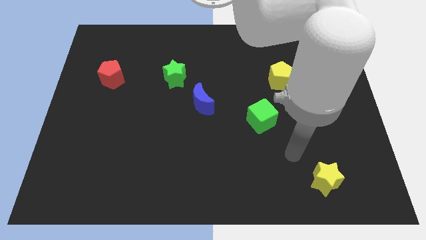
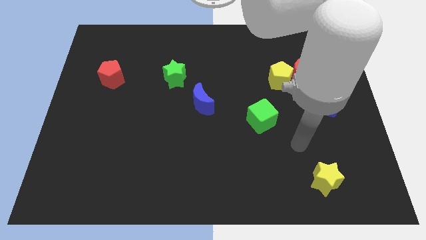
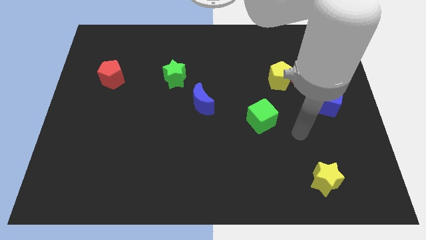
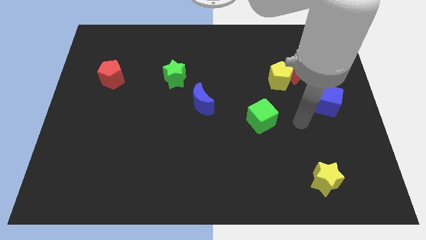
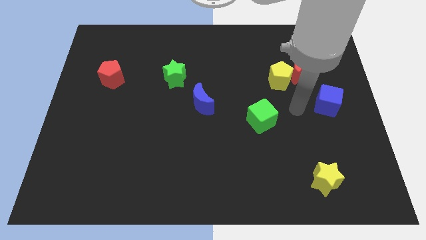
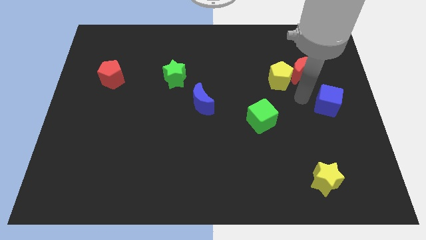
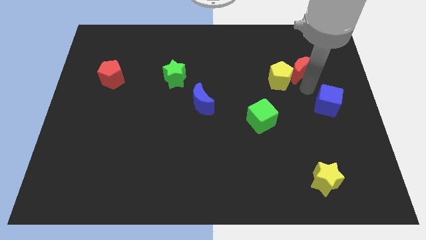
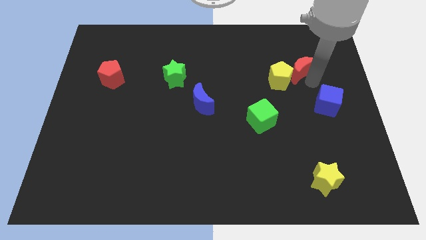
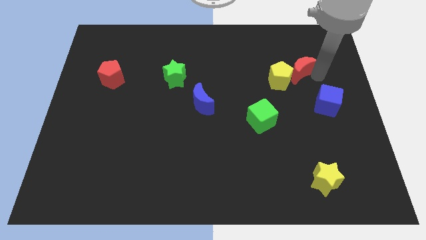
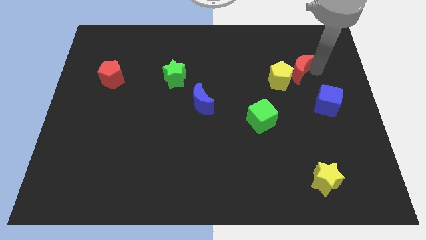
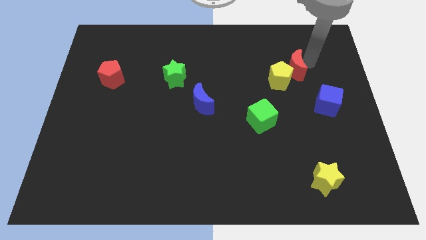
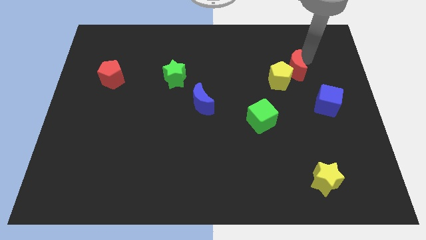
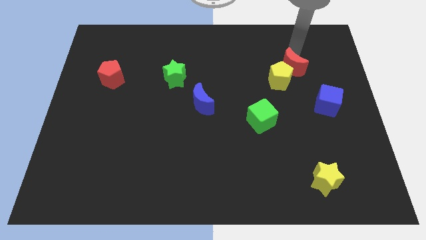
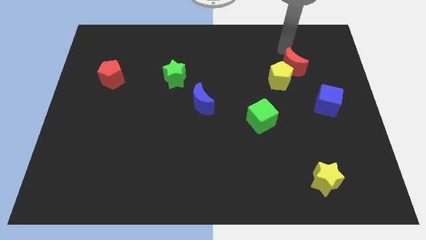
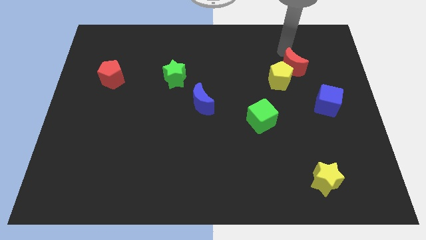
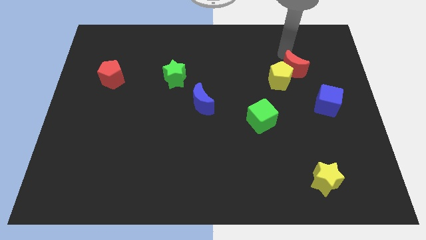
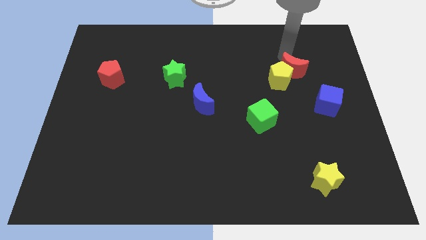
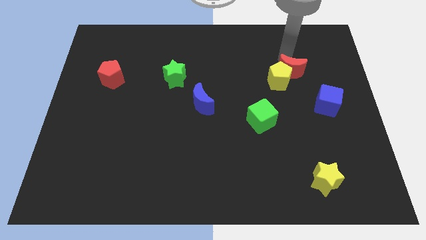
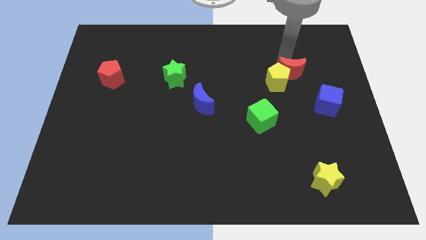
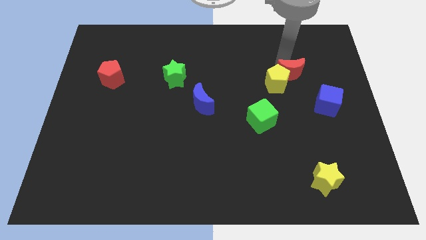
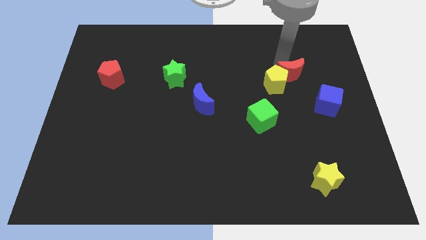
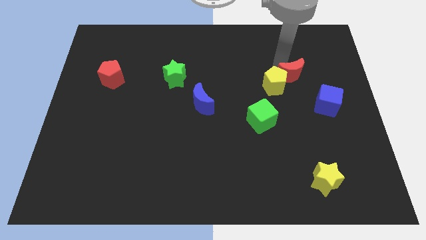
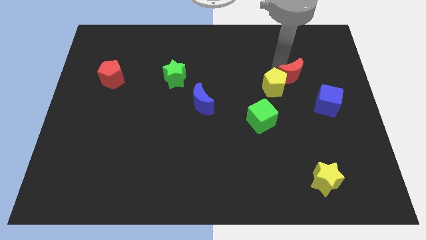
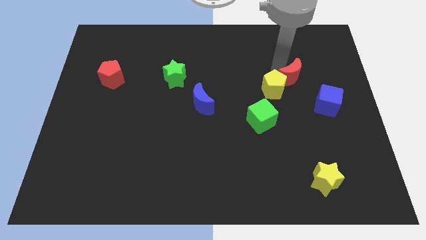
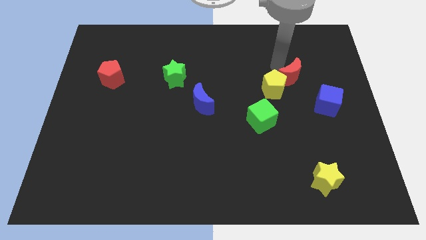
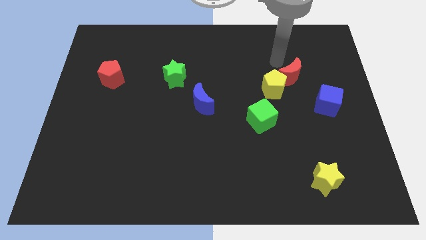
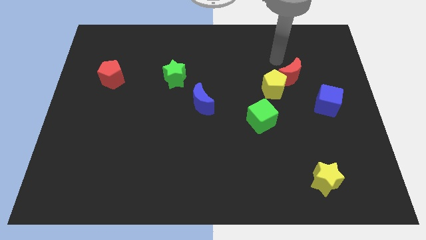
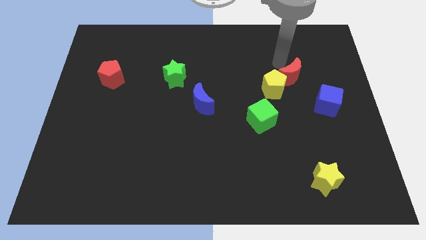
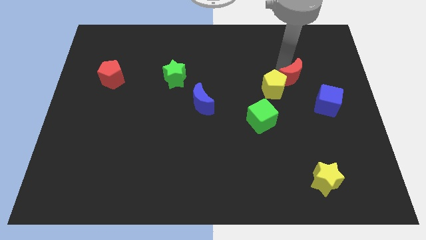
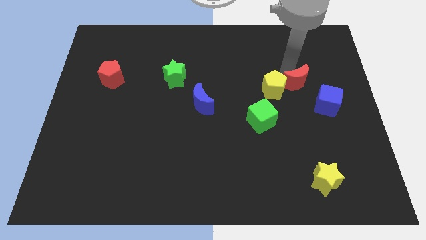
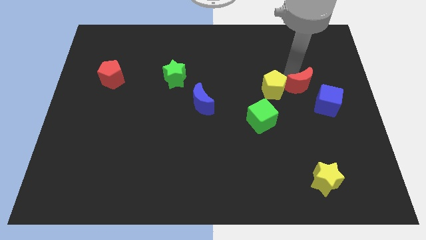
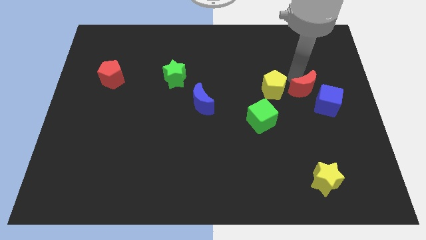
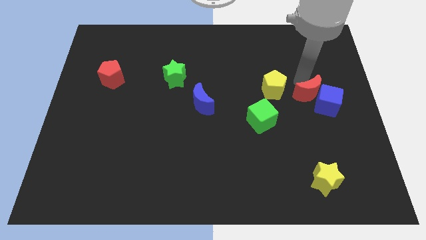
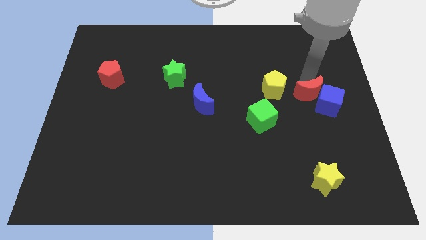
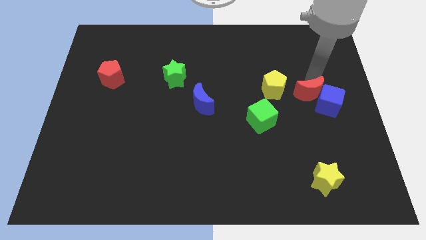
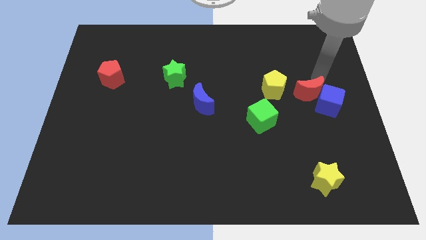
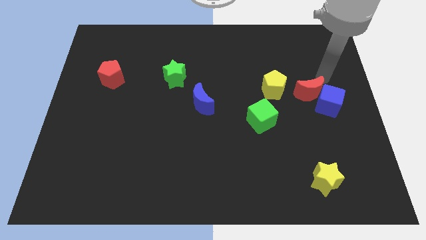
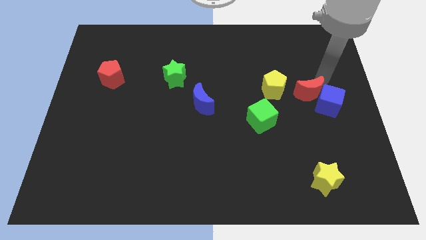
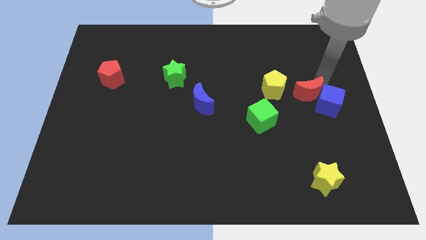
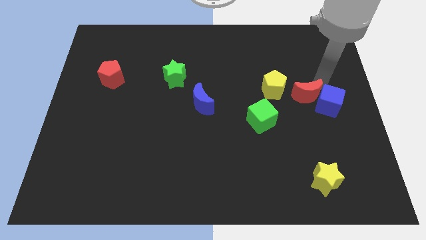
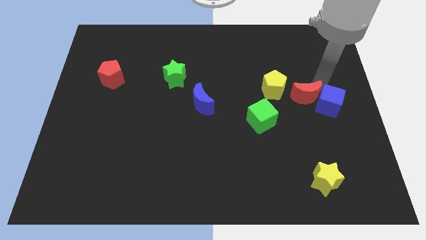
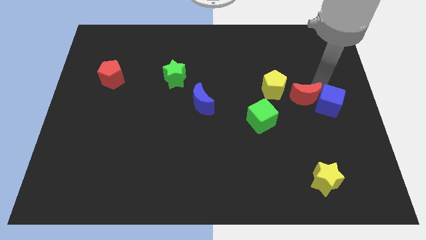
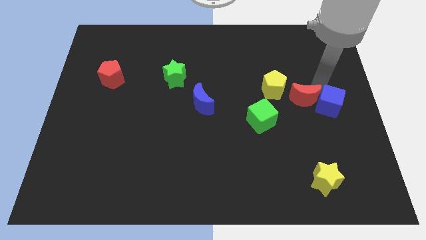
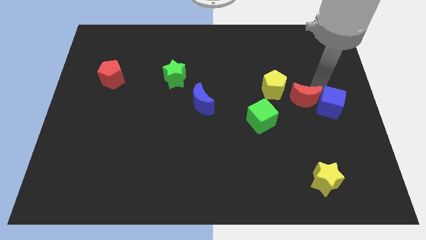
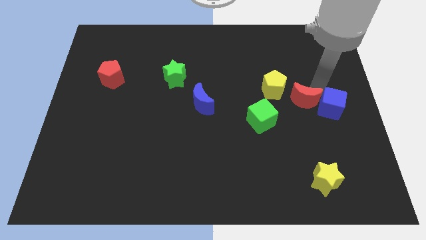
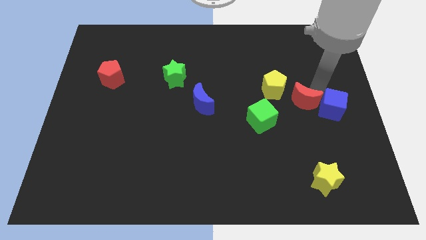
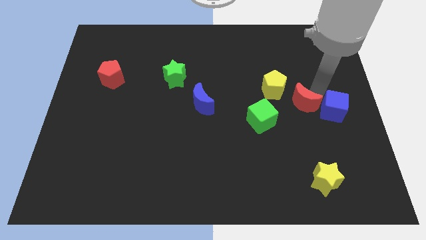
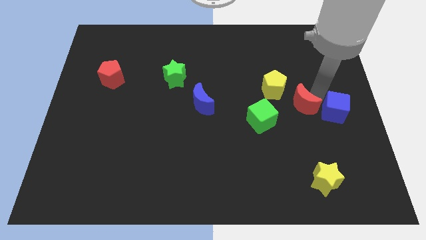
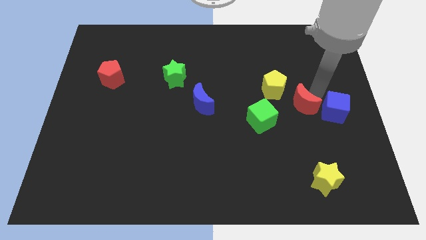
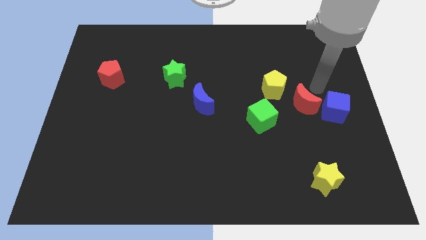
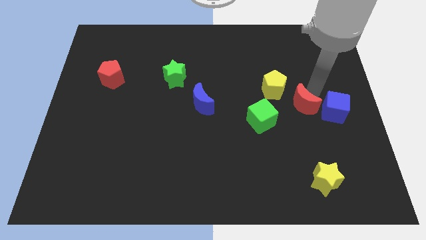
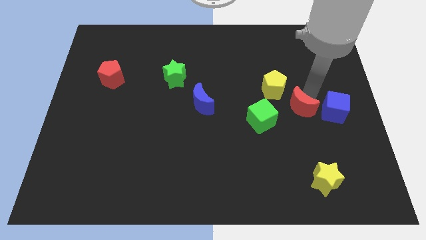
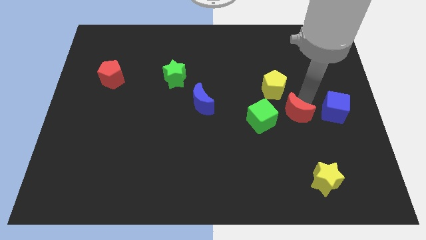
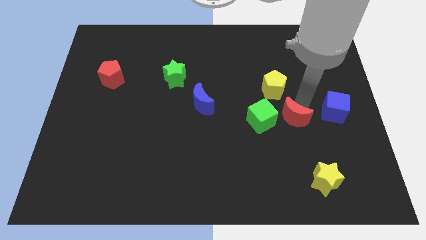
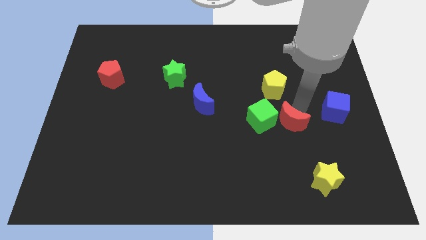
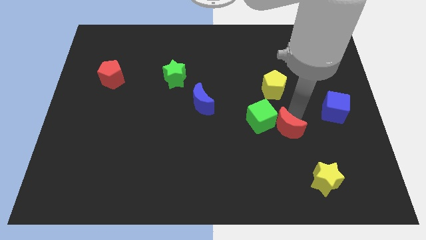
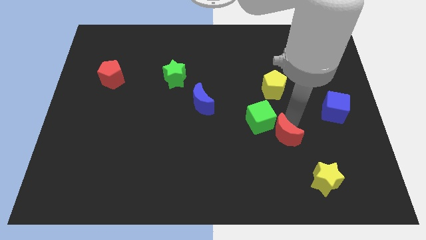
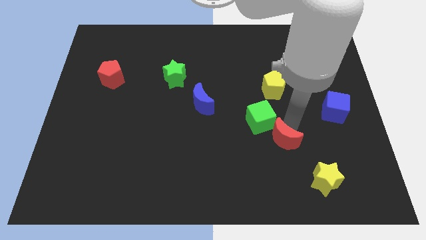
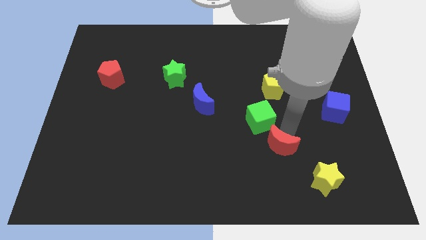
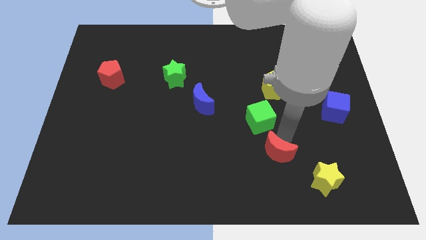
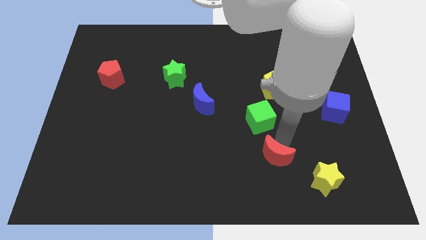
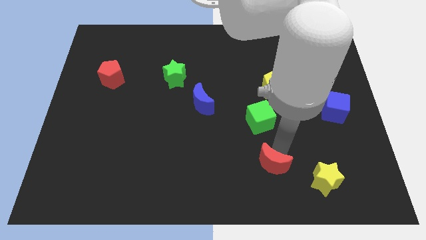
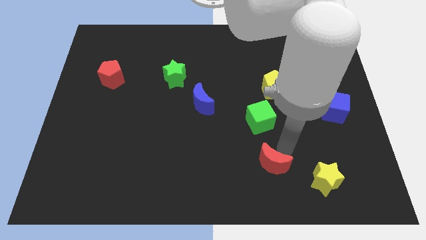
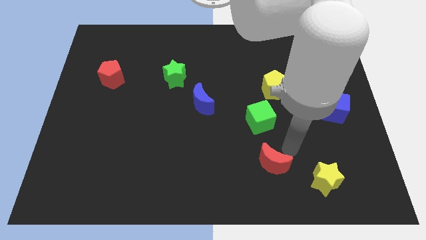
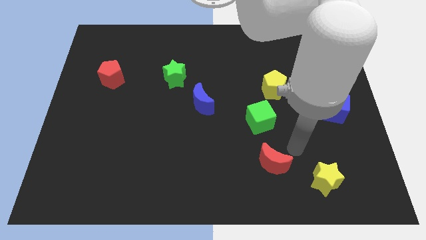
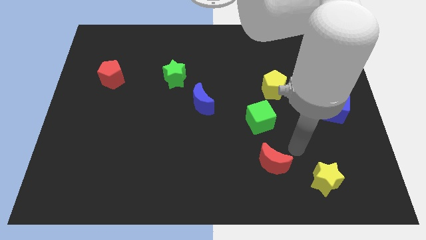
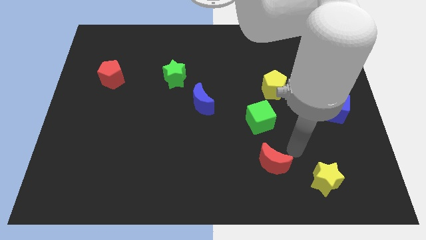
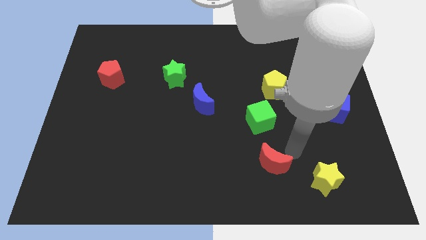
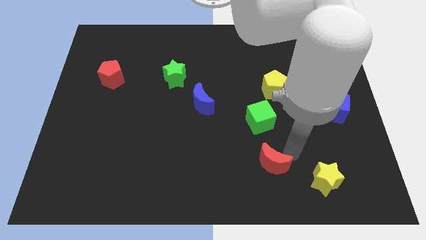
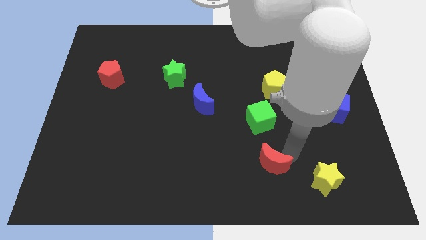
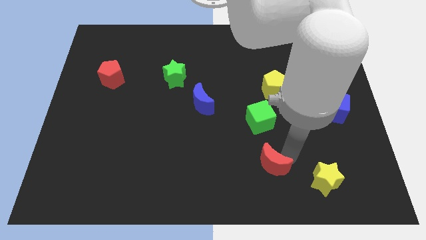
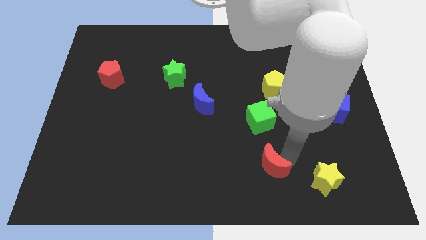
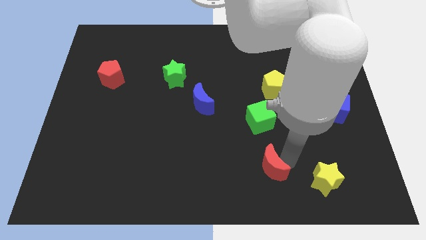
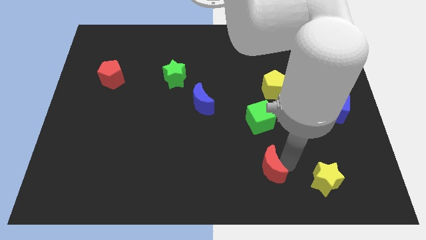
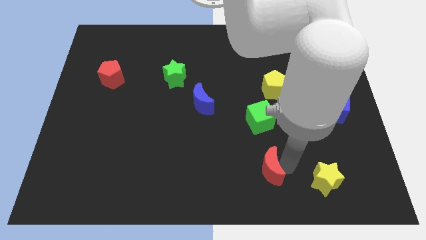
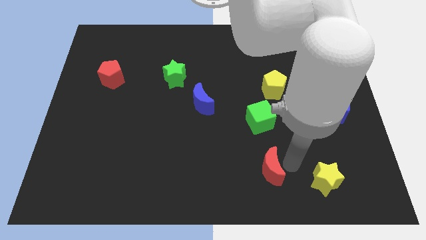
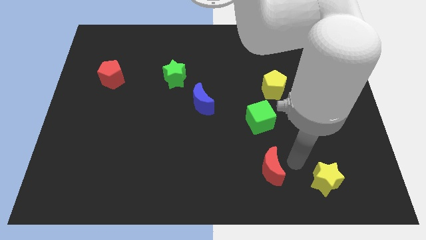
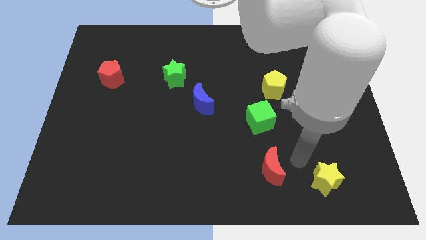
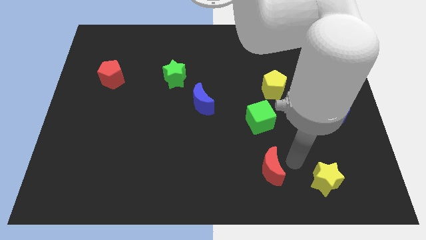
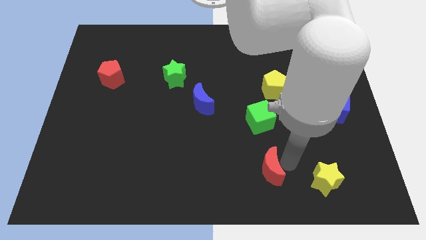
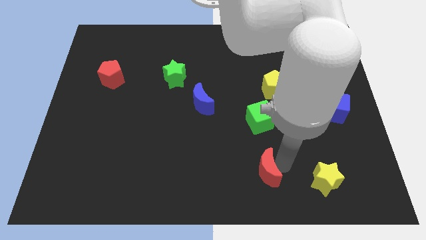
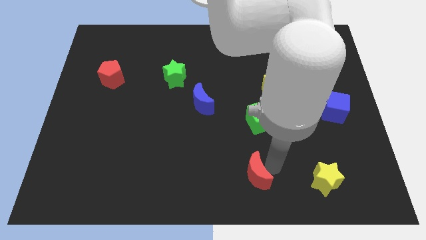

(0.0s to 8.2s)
slide the red moon to the bottom side
